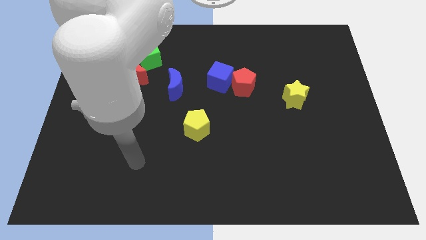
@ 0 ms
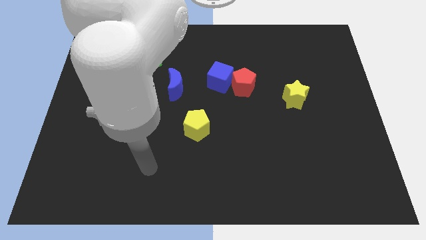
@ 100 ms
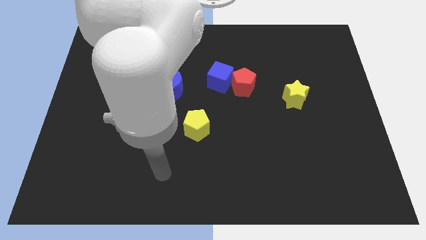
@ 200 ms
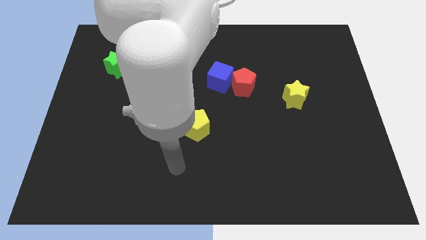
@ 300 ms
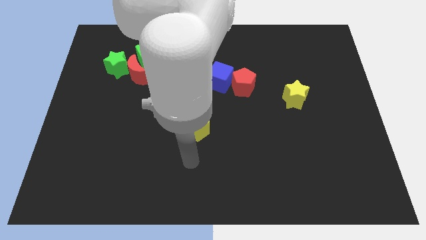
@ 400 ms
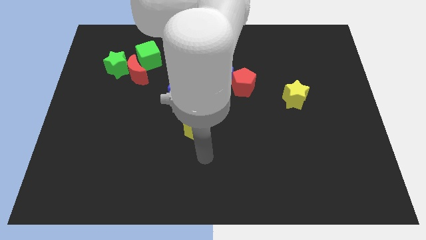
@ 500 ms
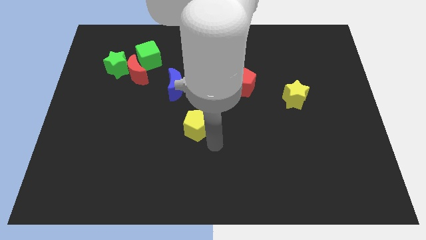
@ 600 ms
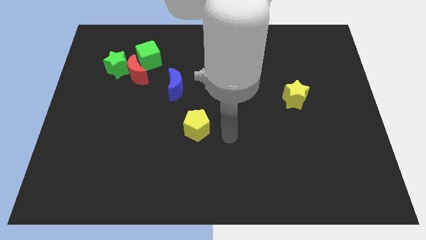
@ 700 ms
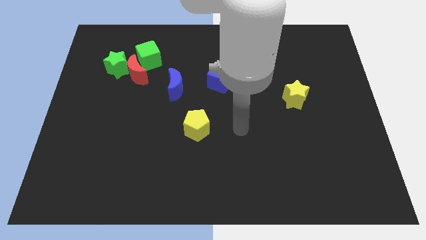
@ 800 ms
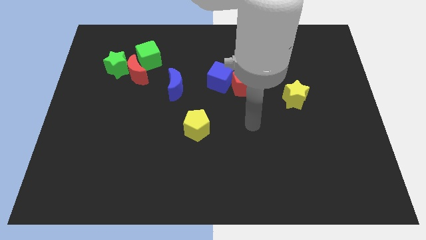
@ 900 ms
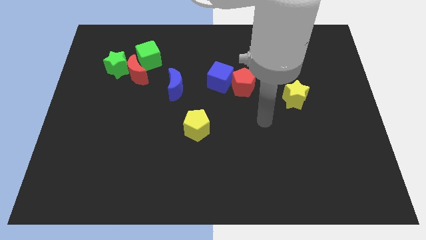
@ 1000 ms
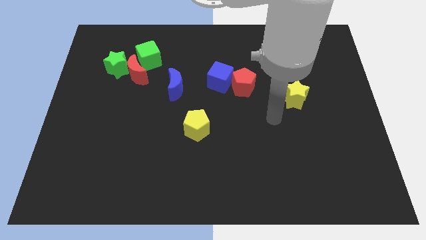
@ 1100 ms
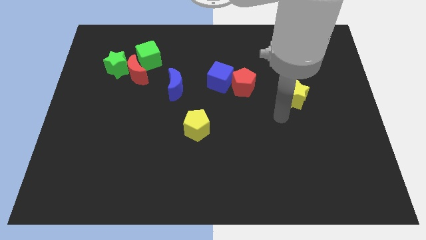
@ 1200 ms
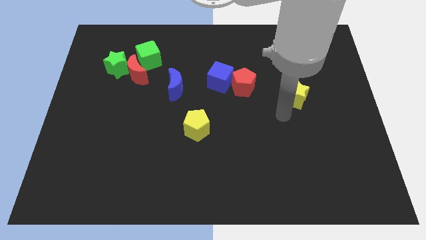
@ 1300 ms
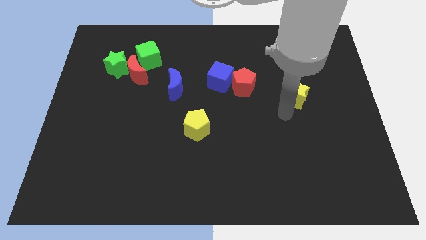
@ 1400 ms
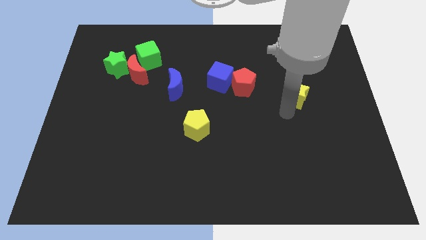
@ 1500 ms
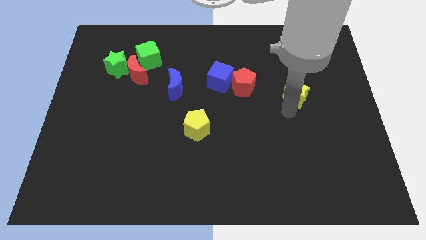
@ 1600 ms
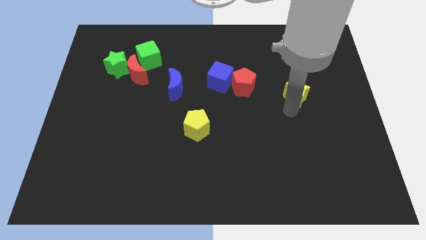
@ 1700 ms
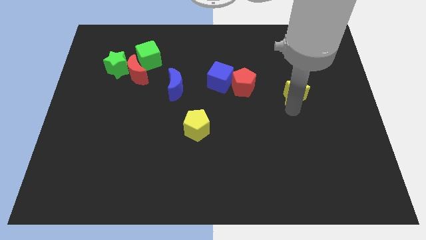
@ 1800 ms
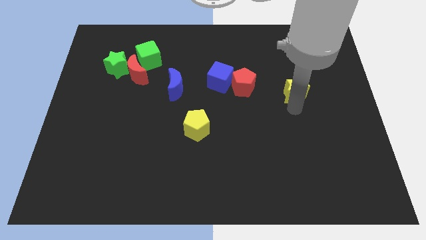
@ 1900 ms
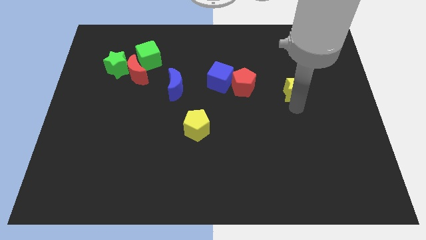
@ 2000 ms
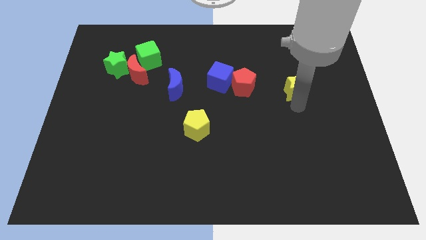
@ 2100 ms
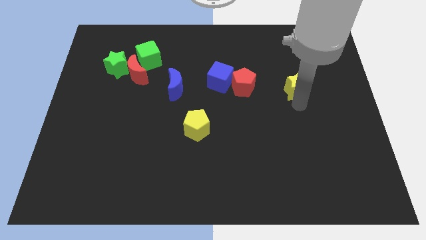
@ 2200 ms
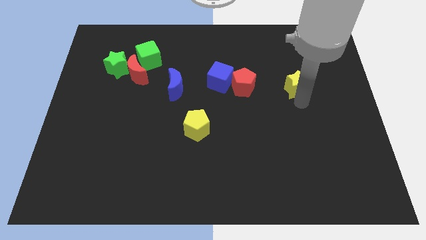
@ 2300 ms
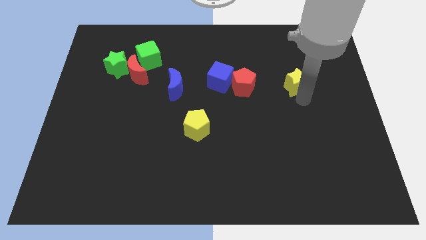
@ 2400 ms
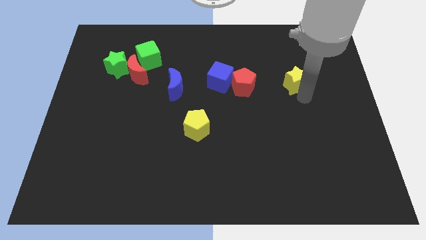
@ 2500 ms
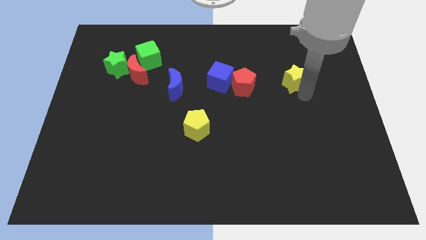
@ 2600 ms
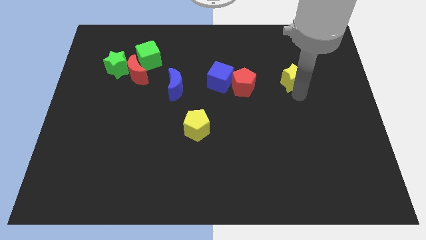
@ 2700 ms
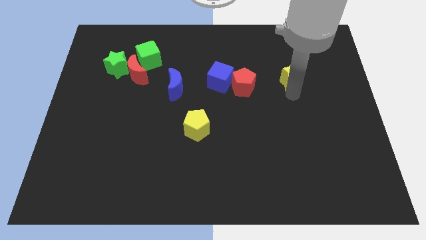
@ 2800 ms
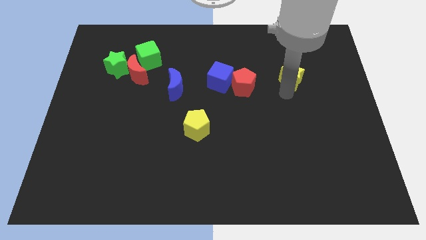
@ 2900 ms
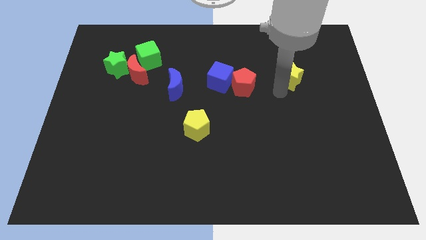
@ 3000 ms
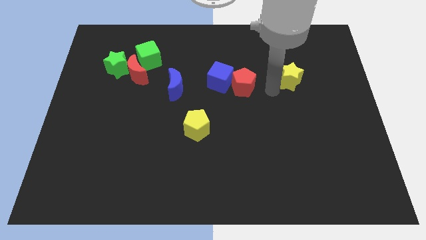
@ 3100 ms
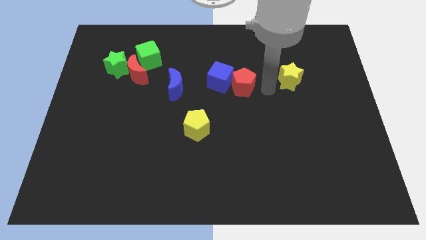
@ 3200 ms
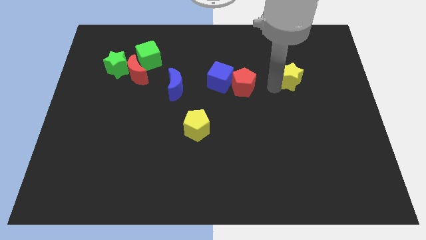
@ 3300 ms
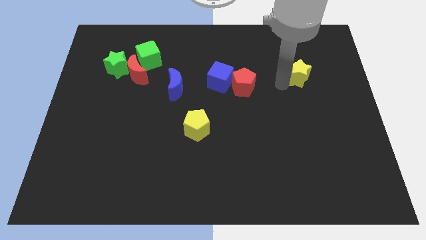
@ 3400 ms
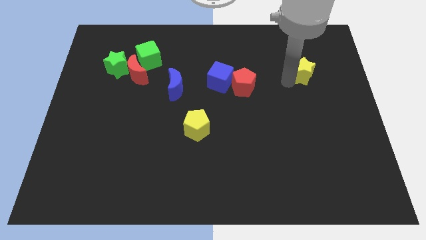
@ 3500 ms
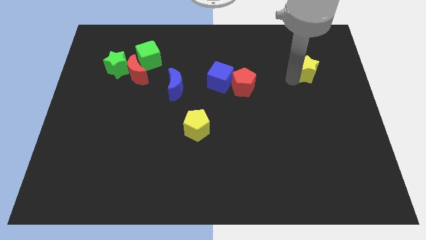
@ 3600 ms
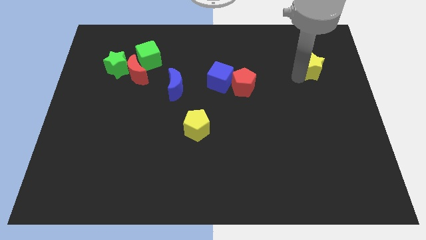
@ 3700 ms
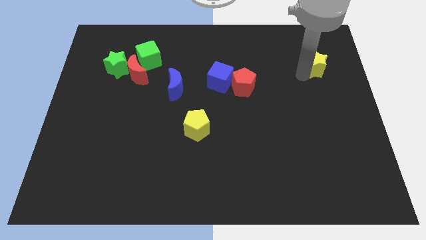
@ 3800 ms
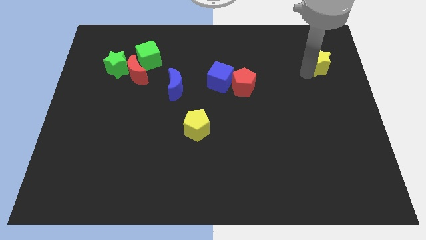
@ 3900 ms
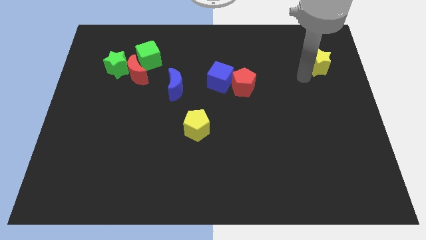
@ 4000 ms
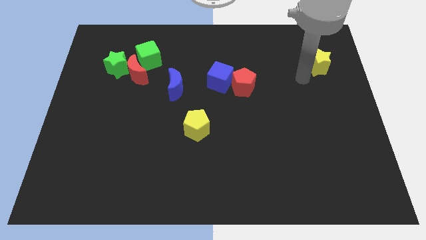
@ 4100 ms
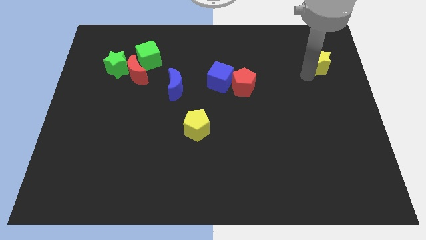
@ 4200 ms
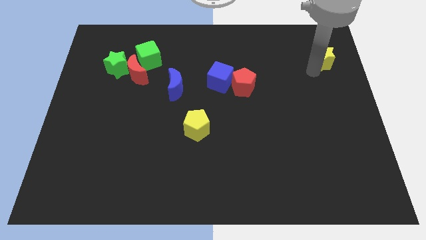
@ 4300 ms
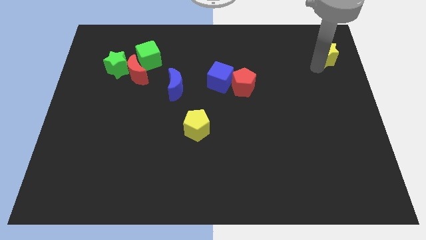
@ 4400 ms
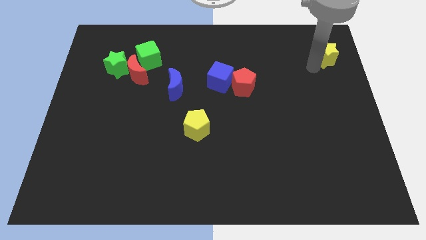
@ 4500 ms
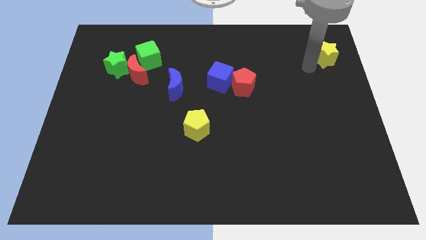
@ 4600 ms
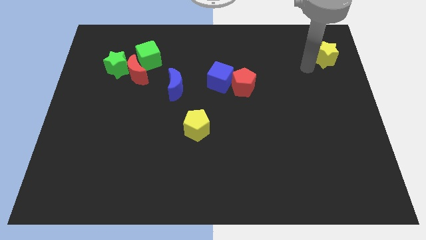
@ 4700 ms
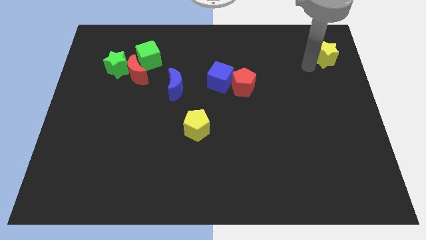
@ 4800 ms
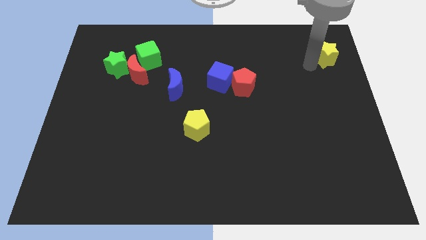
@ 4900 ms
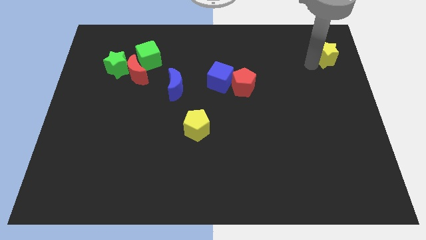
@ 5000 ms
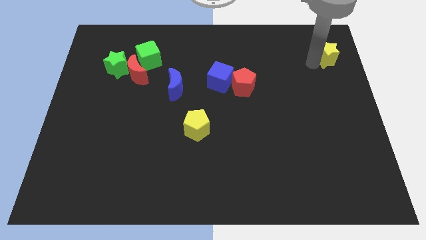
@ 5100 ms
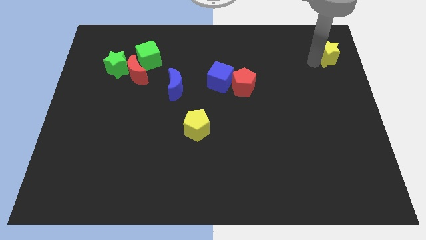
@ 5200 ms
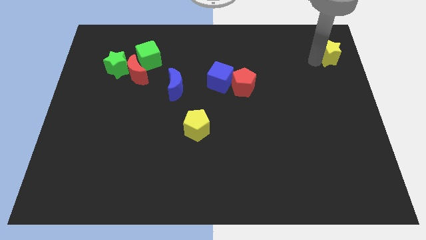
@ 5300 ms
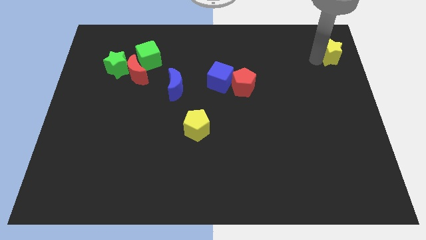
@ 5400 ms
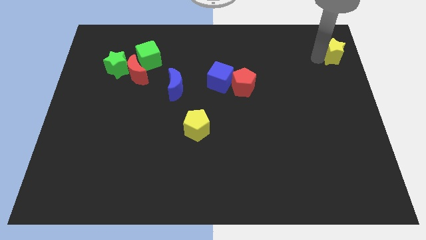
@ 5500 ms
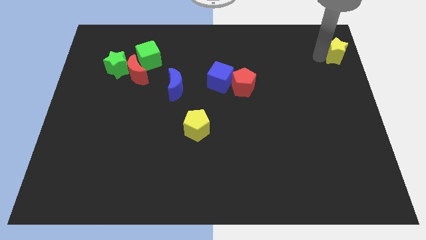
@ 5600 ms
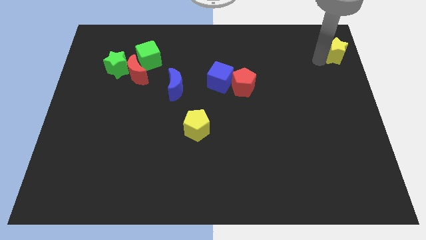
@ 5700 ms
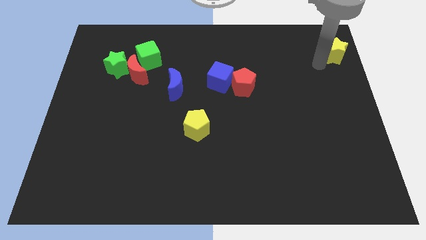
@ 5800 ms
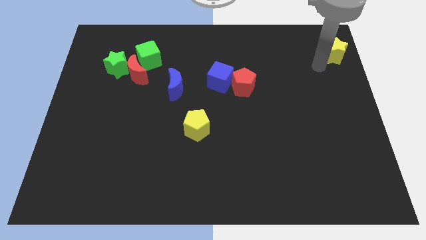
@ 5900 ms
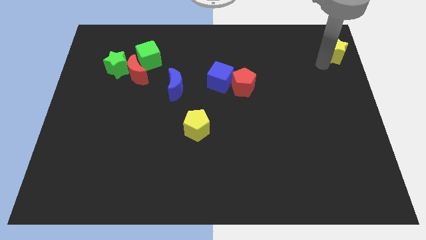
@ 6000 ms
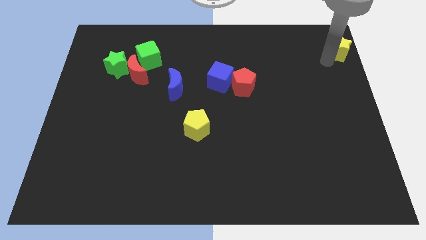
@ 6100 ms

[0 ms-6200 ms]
slide the yellow star to the upper right corner

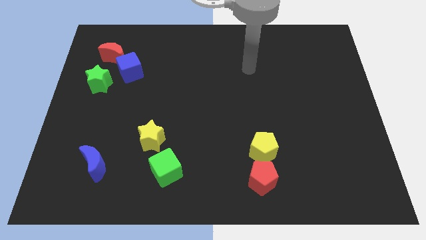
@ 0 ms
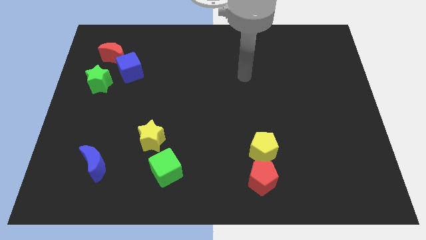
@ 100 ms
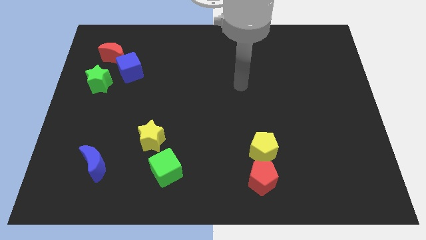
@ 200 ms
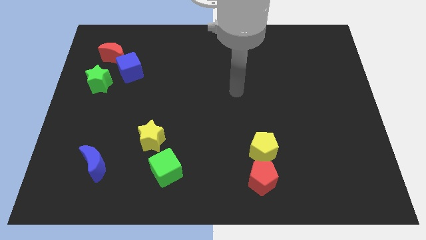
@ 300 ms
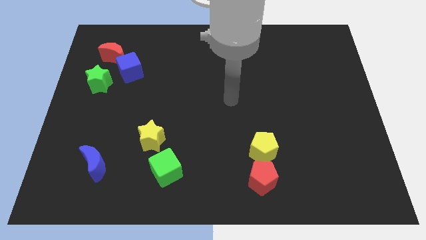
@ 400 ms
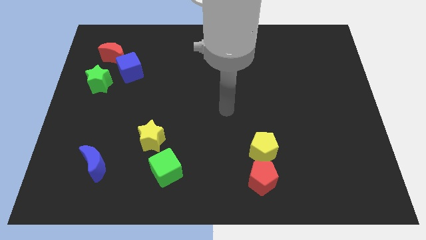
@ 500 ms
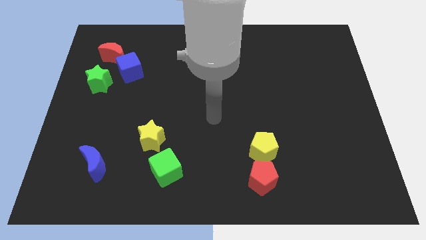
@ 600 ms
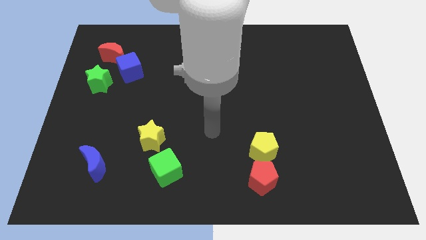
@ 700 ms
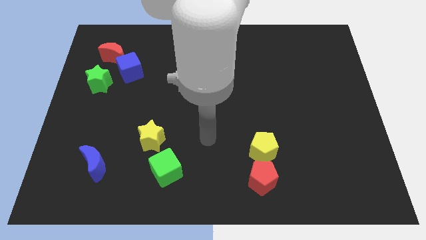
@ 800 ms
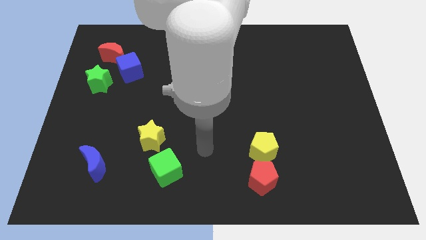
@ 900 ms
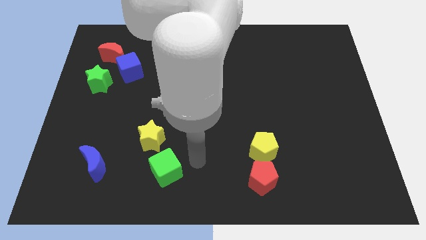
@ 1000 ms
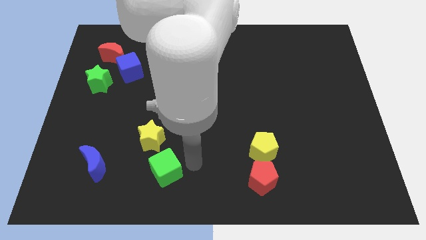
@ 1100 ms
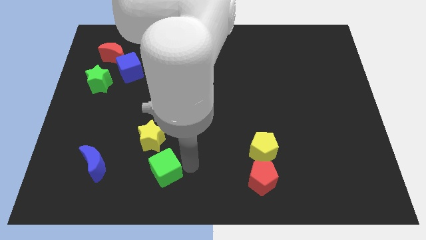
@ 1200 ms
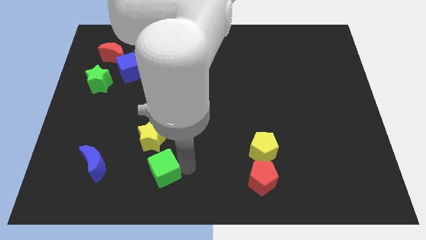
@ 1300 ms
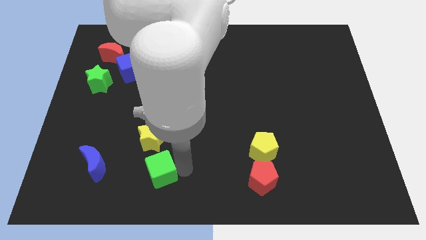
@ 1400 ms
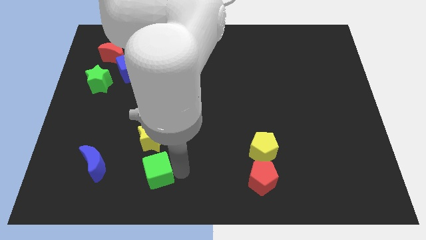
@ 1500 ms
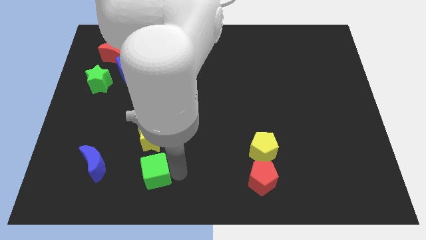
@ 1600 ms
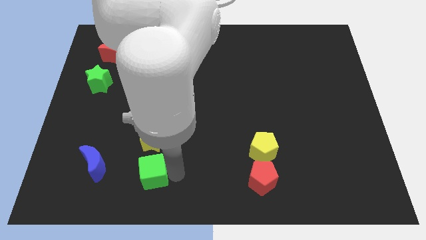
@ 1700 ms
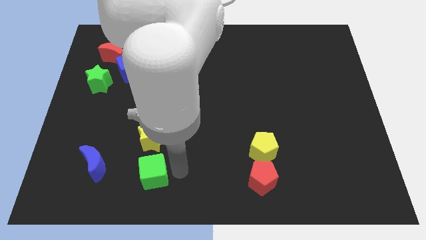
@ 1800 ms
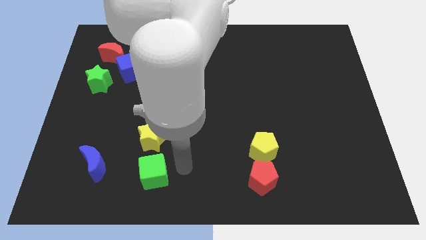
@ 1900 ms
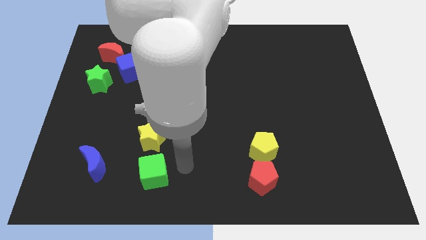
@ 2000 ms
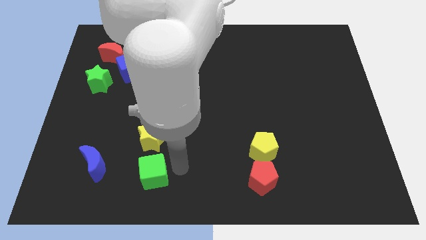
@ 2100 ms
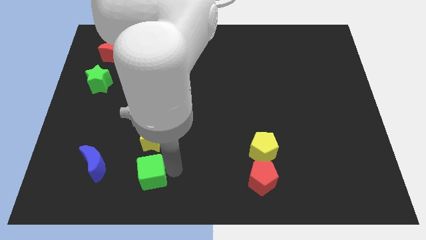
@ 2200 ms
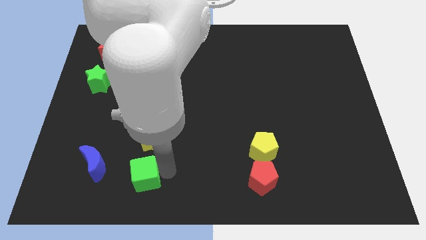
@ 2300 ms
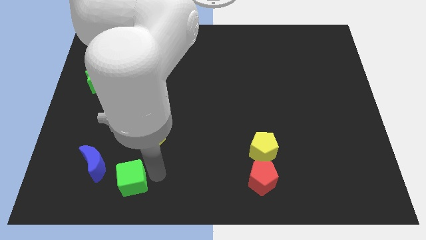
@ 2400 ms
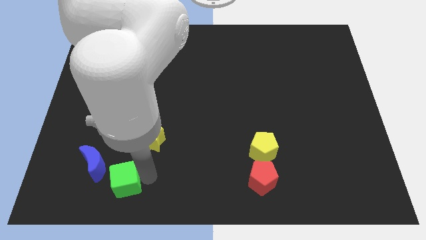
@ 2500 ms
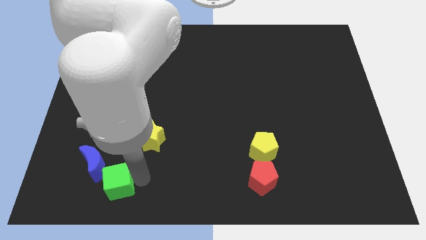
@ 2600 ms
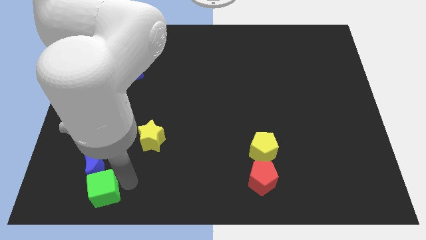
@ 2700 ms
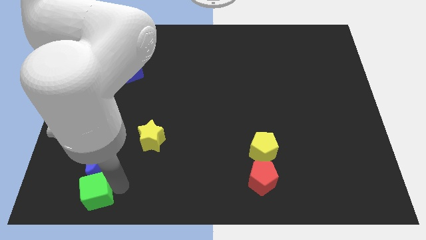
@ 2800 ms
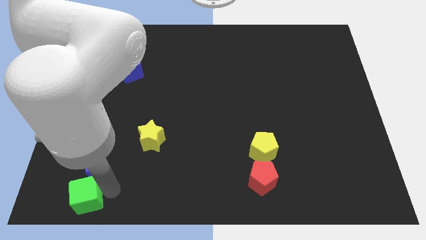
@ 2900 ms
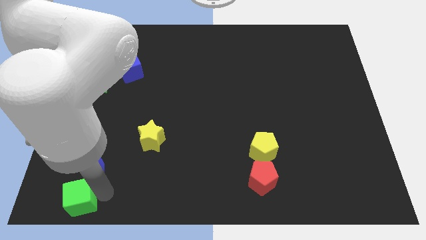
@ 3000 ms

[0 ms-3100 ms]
move the green cube to the bottom left corner
